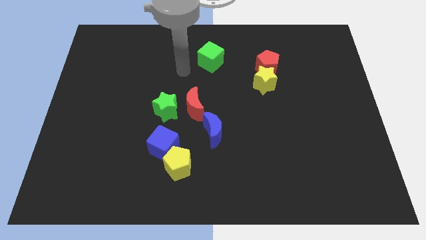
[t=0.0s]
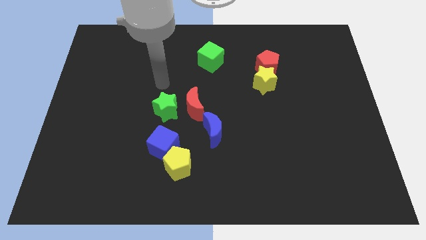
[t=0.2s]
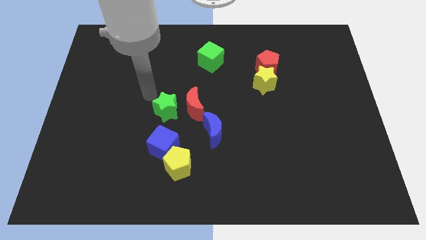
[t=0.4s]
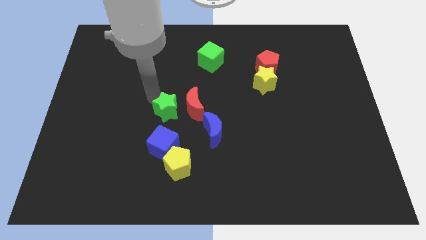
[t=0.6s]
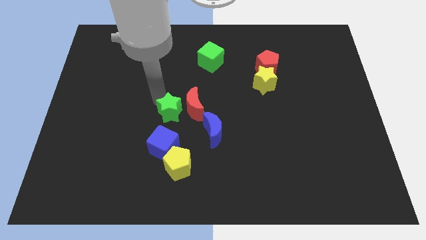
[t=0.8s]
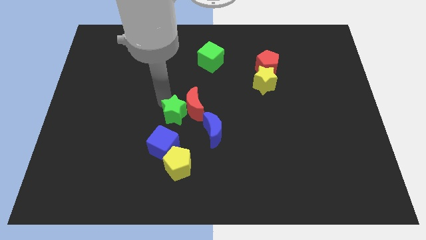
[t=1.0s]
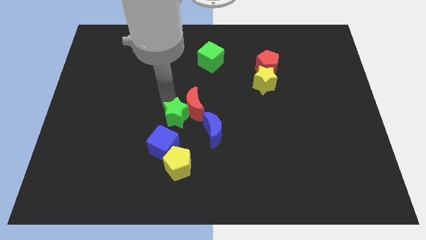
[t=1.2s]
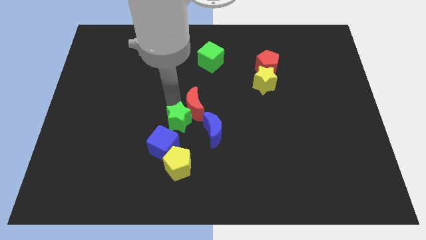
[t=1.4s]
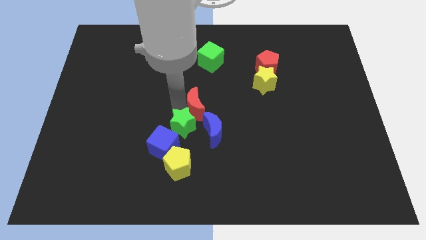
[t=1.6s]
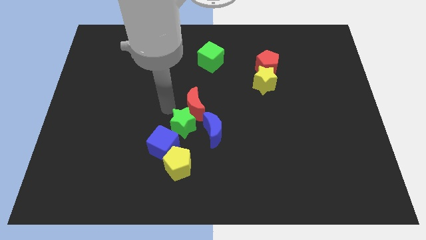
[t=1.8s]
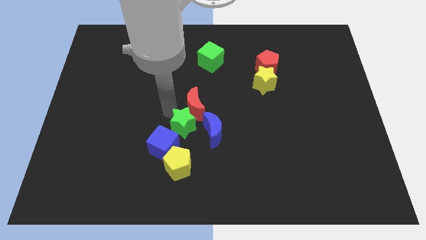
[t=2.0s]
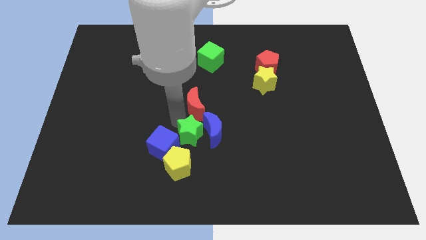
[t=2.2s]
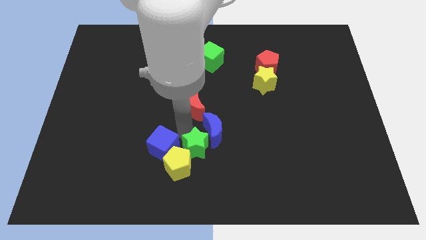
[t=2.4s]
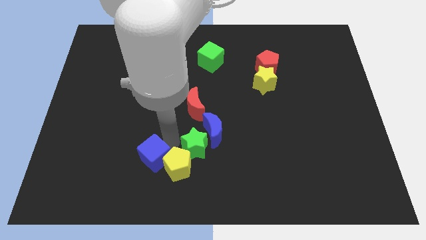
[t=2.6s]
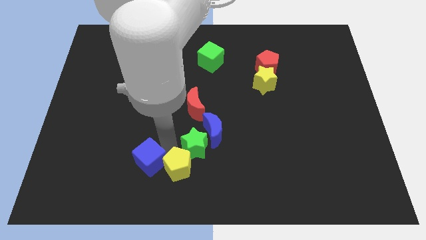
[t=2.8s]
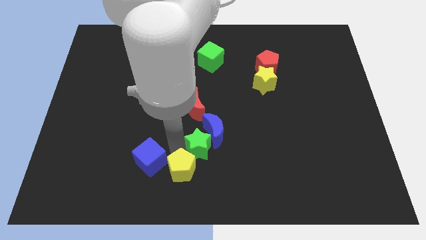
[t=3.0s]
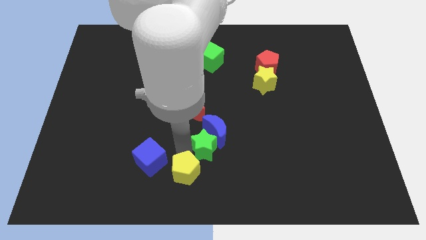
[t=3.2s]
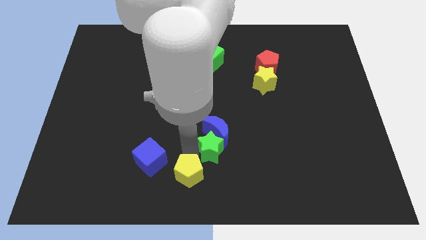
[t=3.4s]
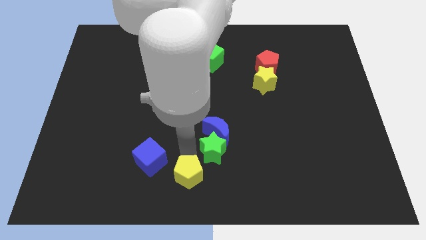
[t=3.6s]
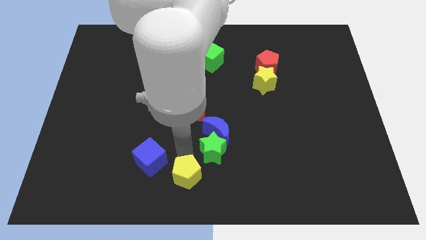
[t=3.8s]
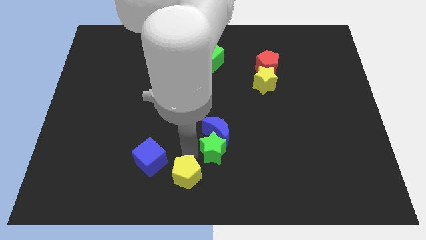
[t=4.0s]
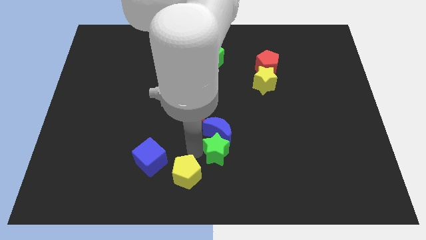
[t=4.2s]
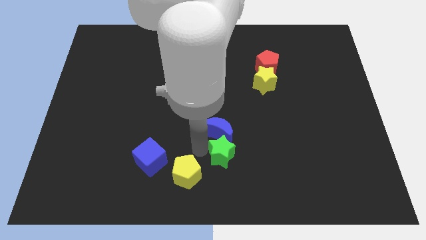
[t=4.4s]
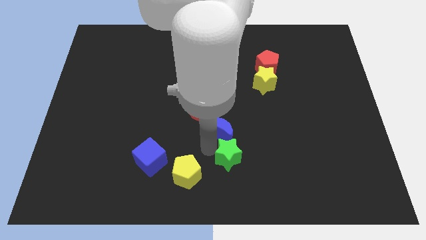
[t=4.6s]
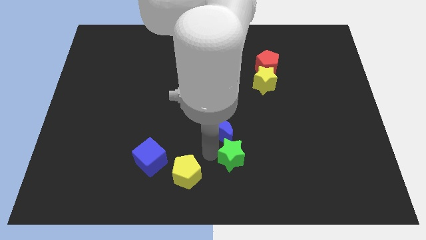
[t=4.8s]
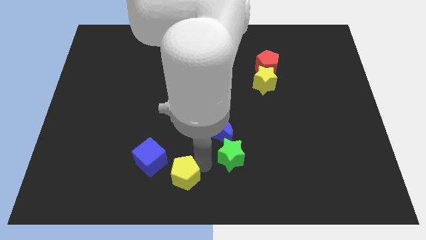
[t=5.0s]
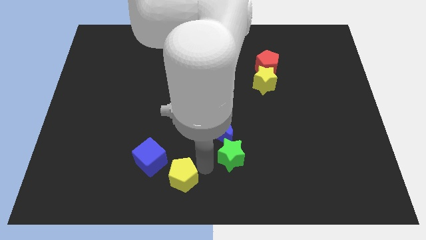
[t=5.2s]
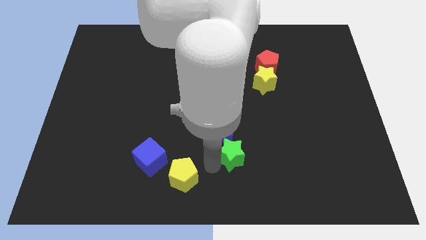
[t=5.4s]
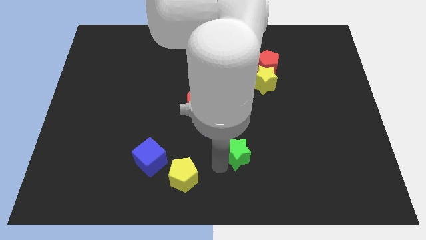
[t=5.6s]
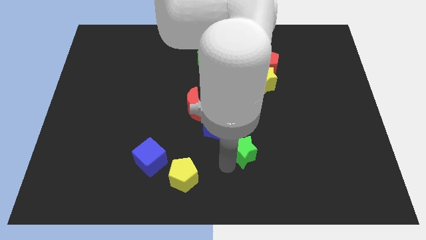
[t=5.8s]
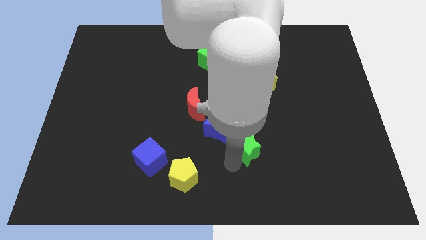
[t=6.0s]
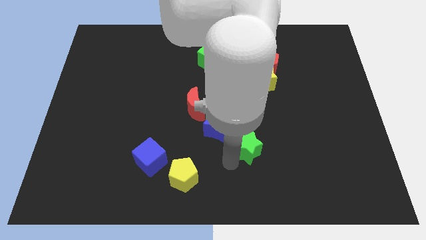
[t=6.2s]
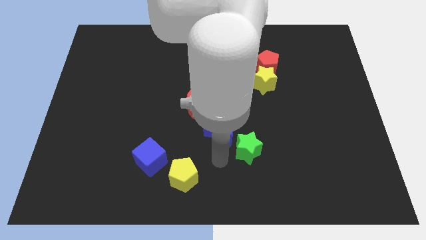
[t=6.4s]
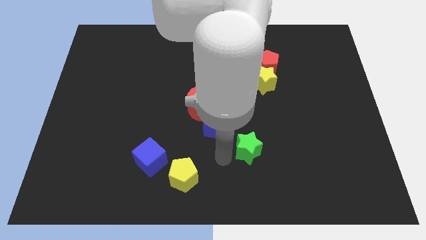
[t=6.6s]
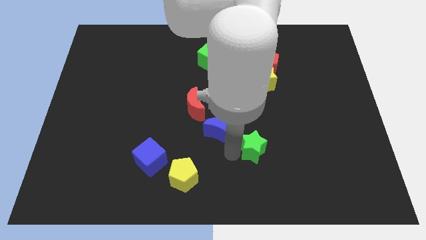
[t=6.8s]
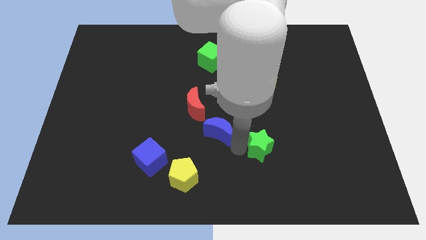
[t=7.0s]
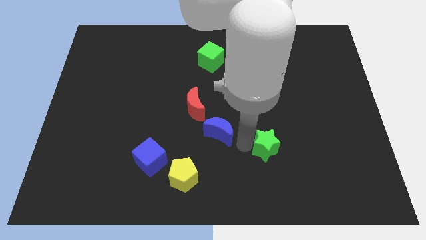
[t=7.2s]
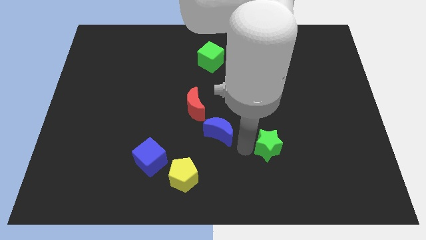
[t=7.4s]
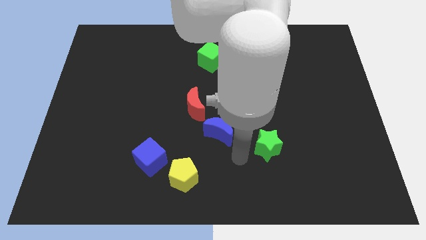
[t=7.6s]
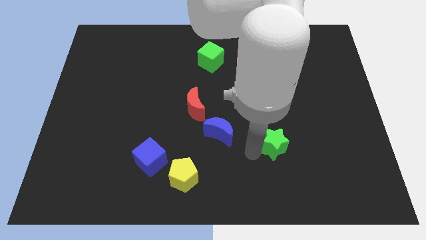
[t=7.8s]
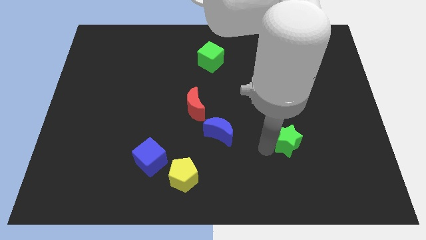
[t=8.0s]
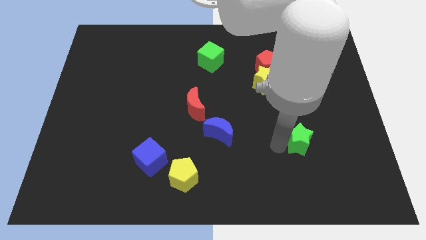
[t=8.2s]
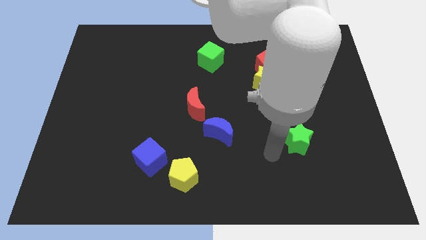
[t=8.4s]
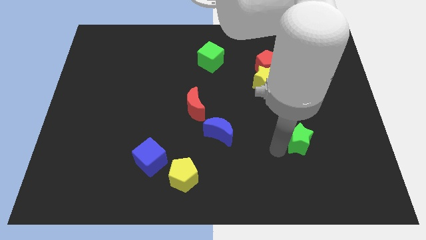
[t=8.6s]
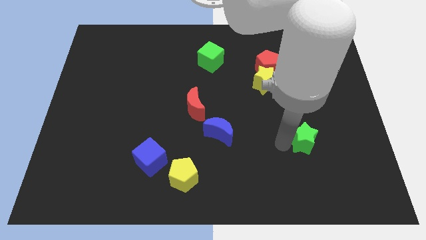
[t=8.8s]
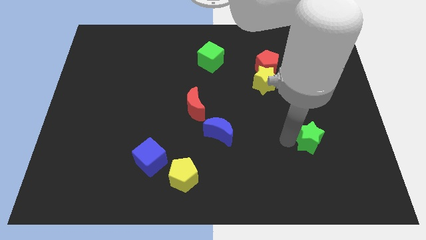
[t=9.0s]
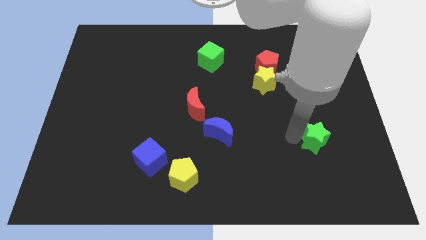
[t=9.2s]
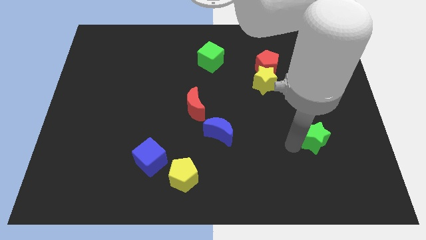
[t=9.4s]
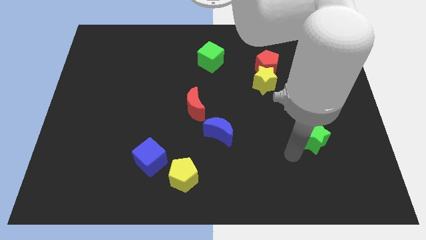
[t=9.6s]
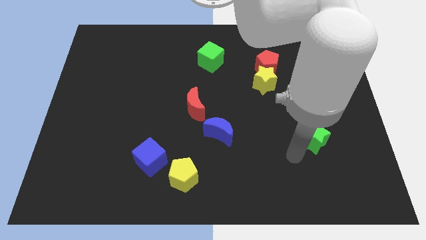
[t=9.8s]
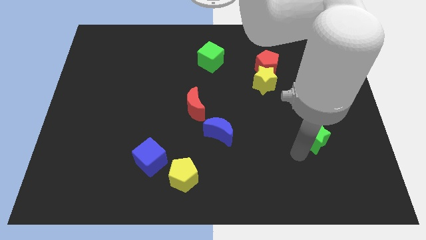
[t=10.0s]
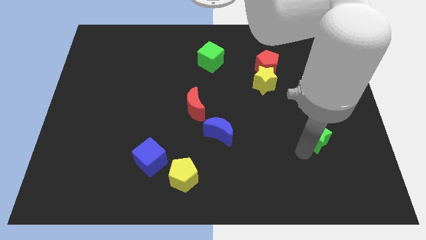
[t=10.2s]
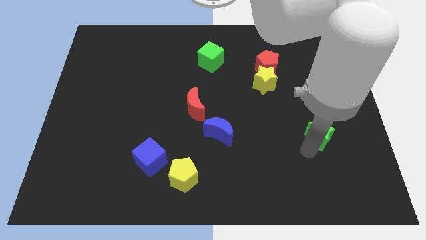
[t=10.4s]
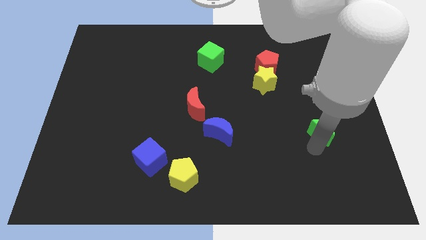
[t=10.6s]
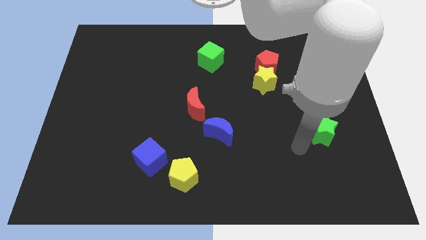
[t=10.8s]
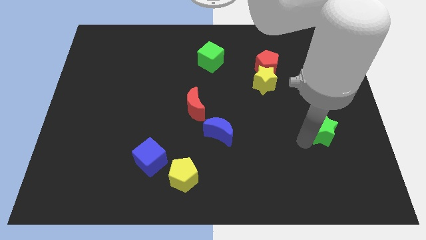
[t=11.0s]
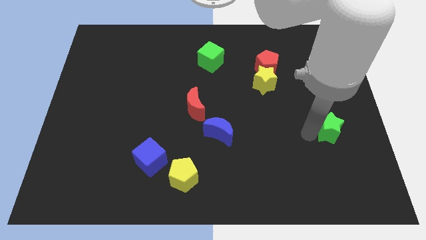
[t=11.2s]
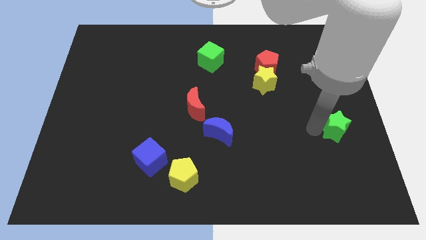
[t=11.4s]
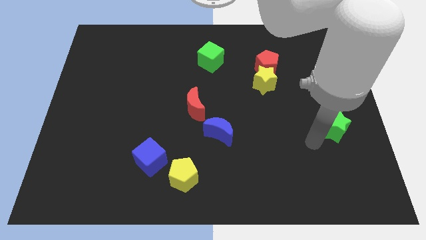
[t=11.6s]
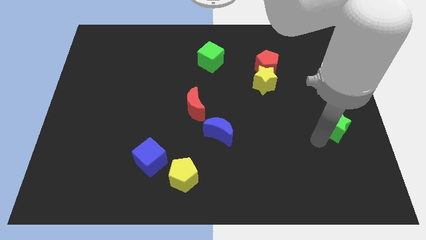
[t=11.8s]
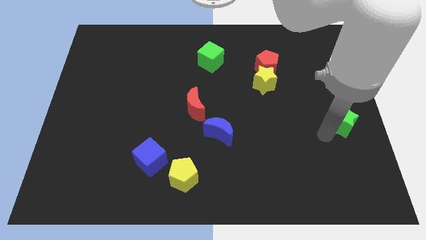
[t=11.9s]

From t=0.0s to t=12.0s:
slide the green star to the right side
